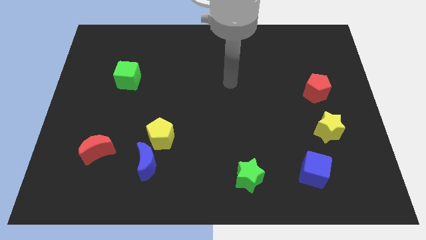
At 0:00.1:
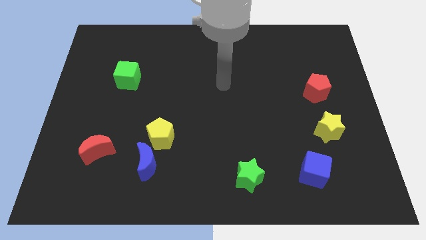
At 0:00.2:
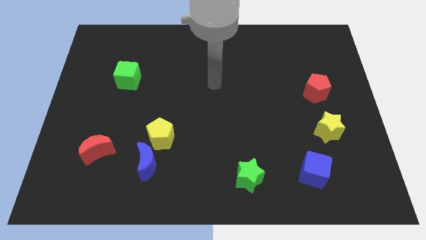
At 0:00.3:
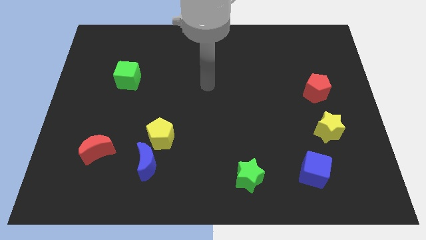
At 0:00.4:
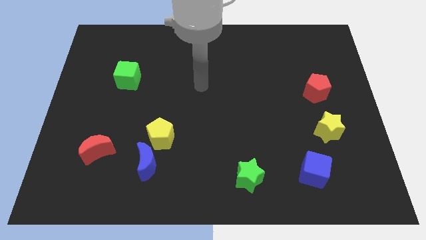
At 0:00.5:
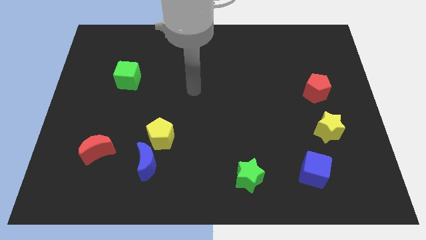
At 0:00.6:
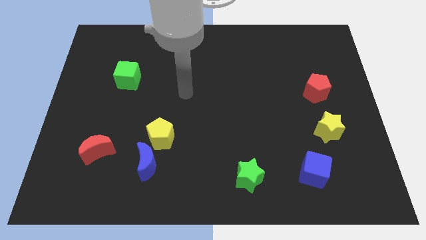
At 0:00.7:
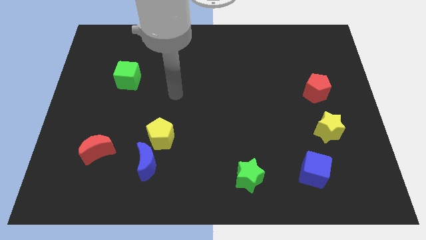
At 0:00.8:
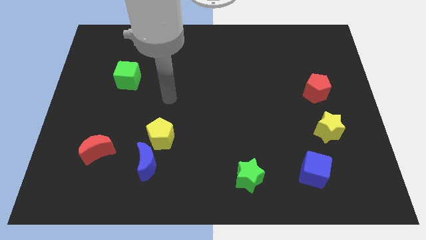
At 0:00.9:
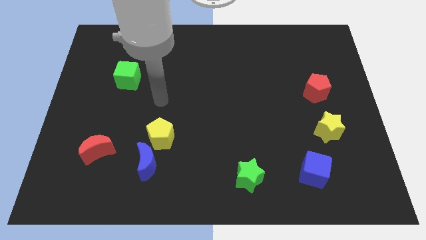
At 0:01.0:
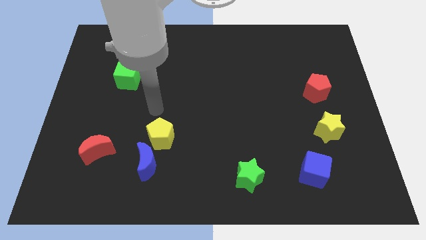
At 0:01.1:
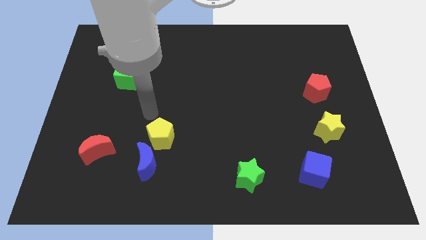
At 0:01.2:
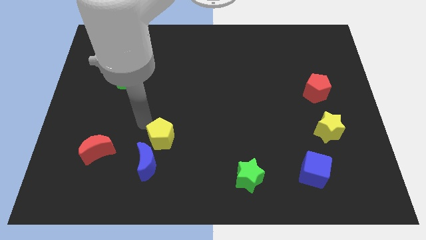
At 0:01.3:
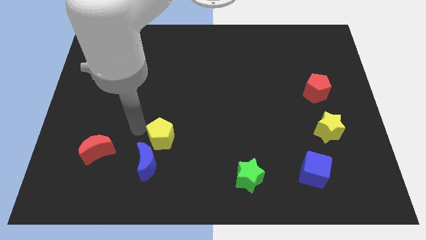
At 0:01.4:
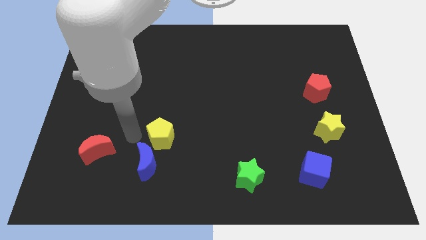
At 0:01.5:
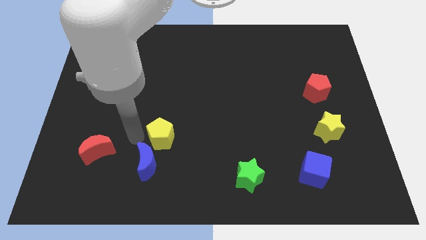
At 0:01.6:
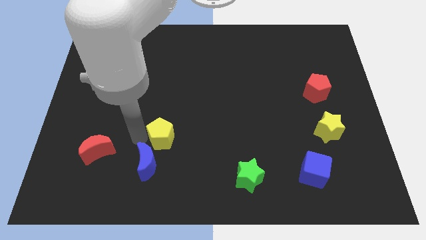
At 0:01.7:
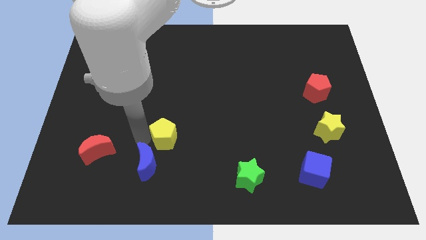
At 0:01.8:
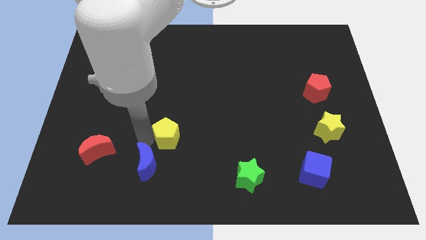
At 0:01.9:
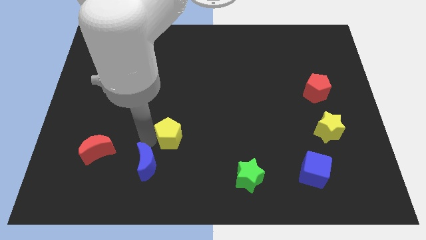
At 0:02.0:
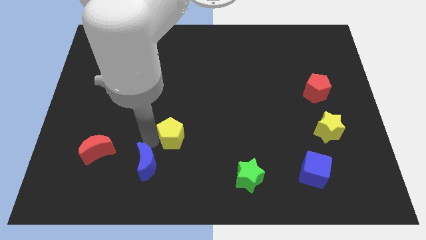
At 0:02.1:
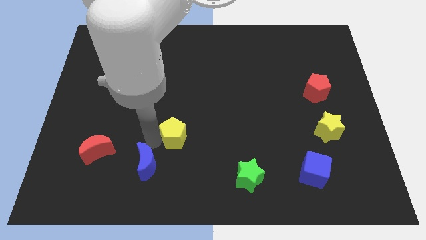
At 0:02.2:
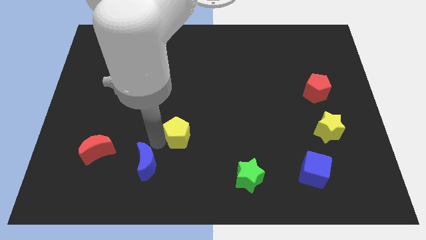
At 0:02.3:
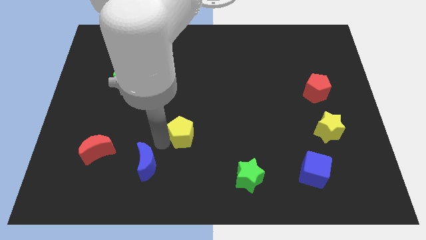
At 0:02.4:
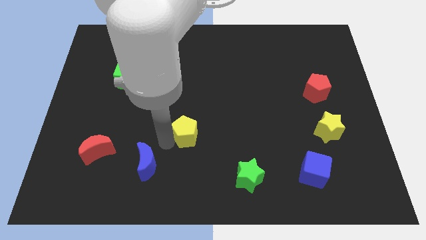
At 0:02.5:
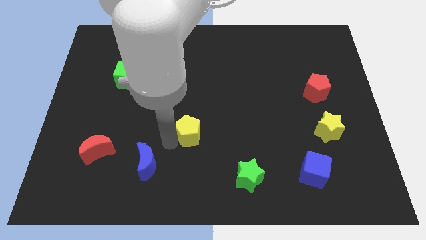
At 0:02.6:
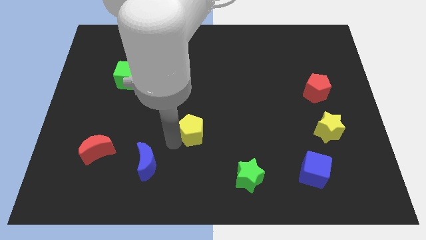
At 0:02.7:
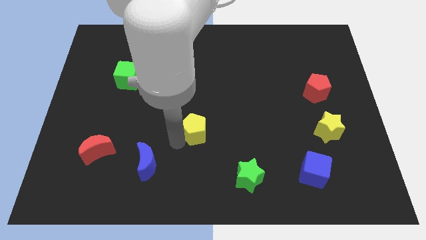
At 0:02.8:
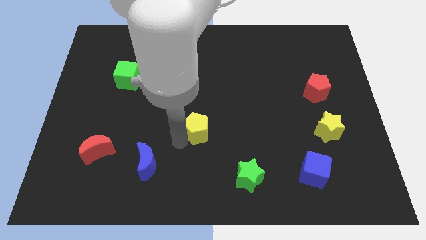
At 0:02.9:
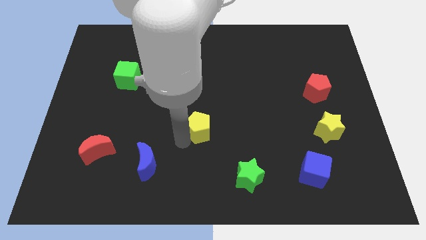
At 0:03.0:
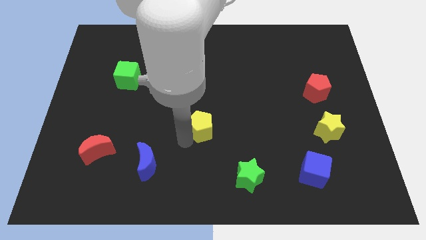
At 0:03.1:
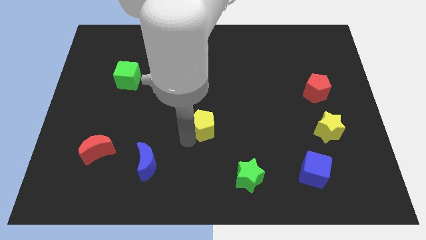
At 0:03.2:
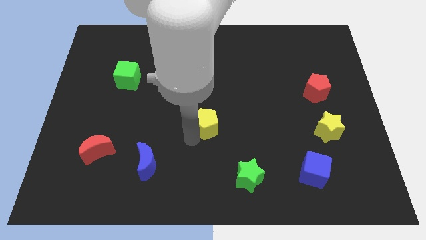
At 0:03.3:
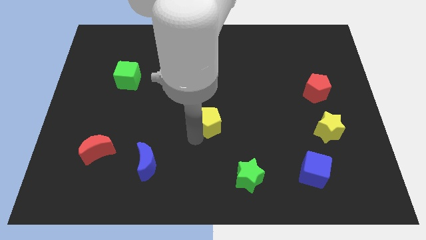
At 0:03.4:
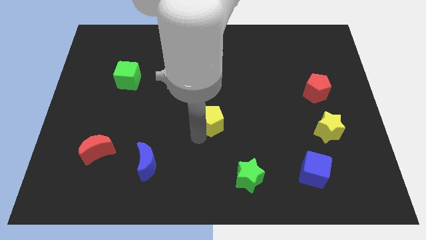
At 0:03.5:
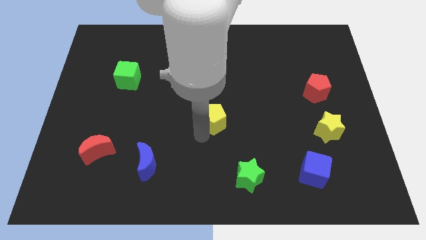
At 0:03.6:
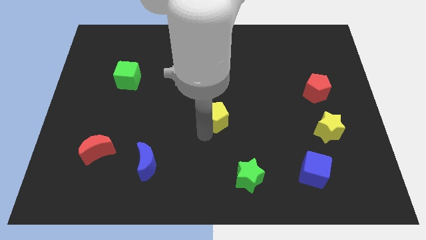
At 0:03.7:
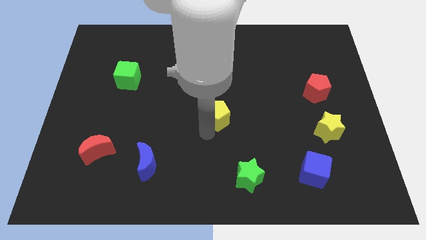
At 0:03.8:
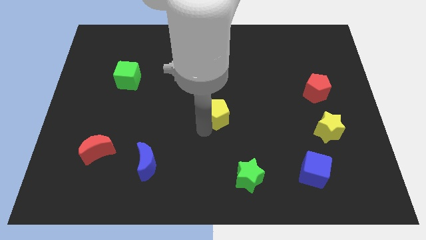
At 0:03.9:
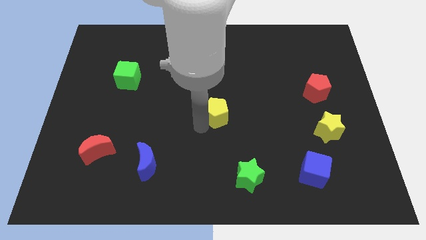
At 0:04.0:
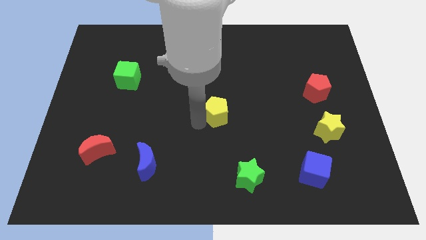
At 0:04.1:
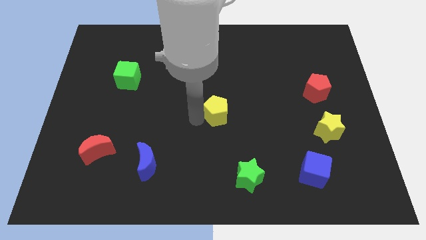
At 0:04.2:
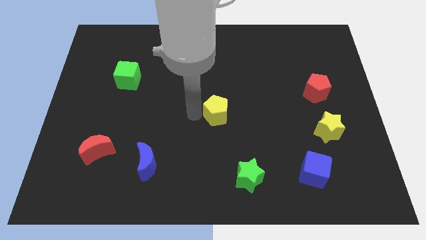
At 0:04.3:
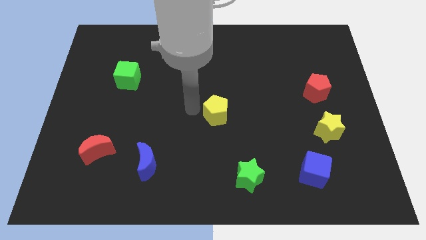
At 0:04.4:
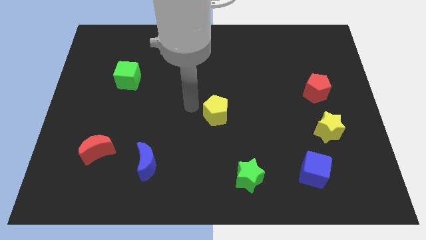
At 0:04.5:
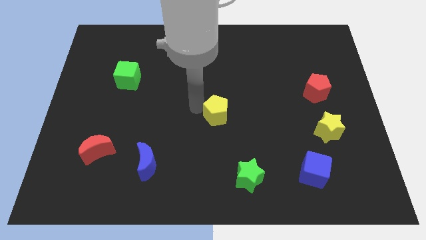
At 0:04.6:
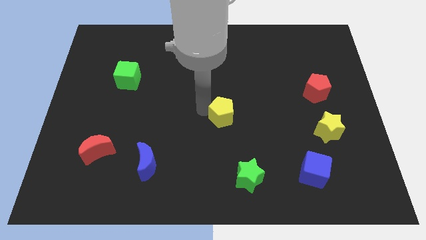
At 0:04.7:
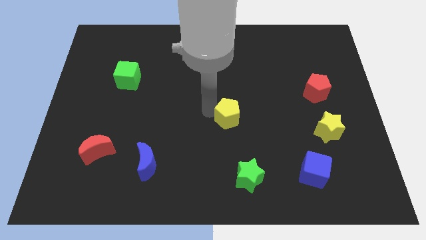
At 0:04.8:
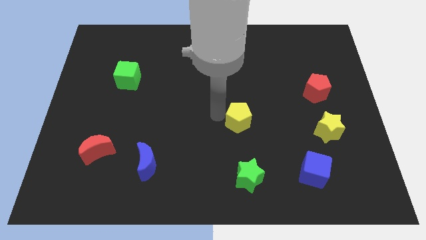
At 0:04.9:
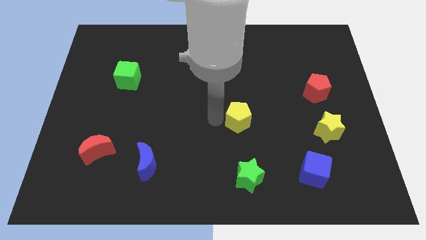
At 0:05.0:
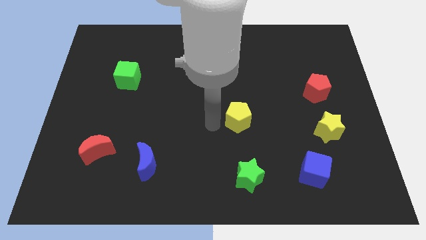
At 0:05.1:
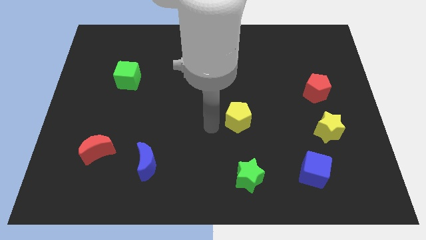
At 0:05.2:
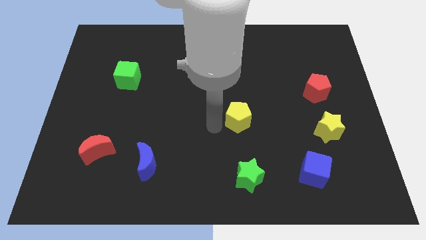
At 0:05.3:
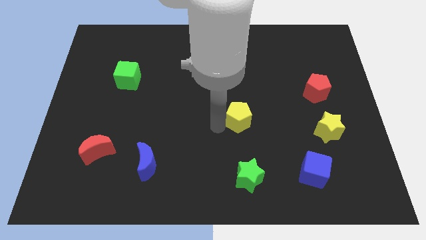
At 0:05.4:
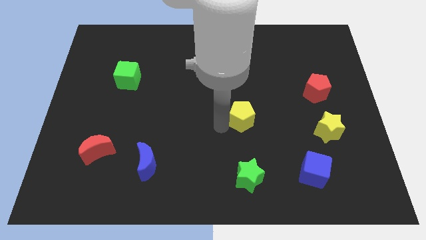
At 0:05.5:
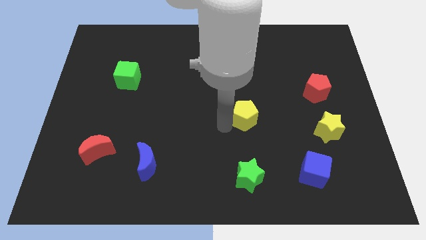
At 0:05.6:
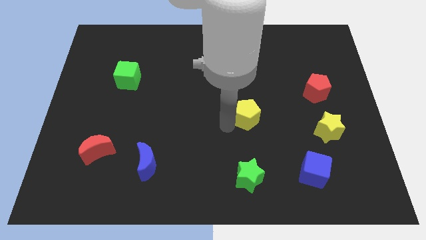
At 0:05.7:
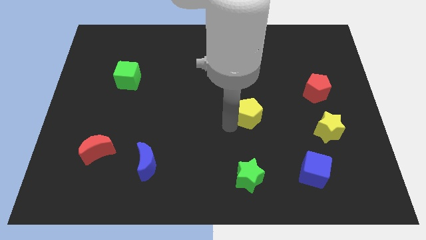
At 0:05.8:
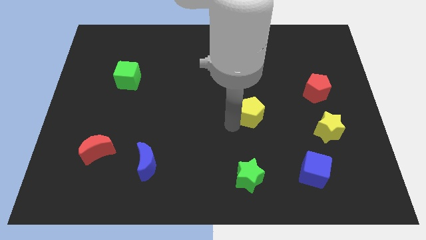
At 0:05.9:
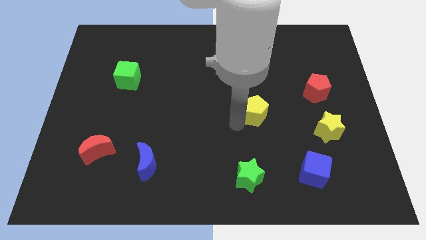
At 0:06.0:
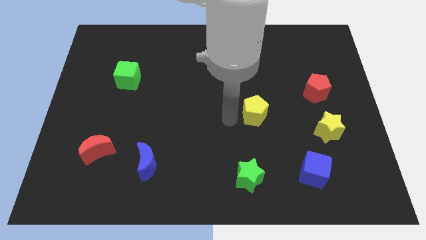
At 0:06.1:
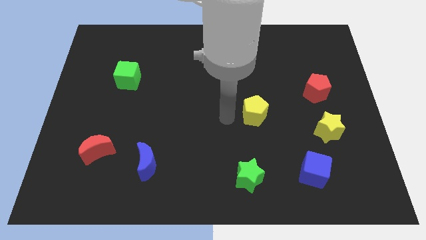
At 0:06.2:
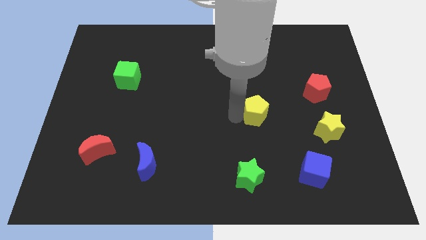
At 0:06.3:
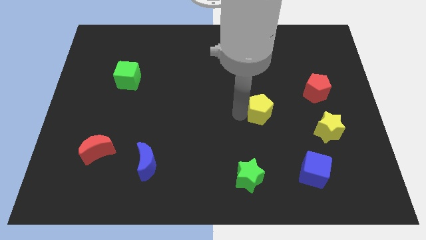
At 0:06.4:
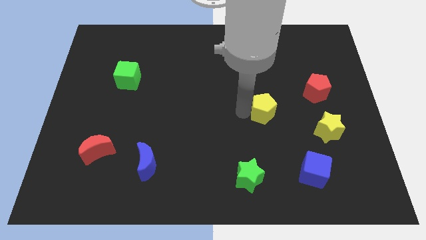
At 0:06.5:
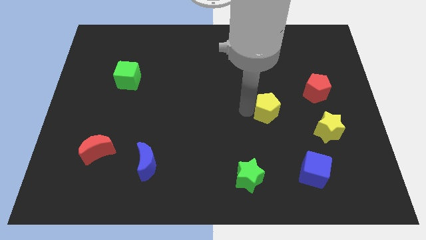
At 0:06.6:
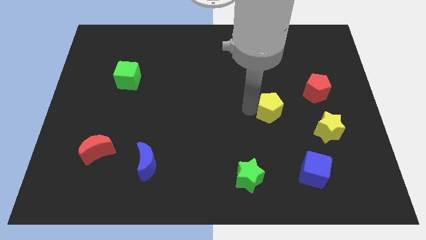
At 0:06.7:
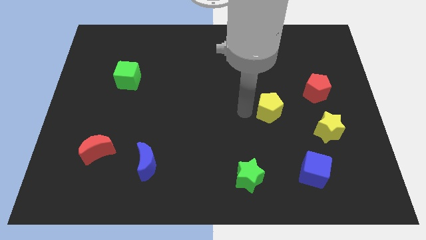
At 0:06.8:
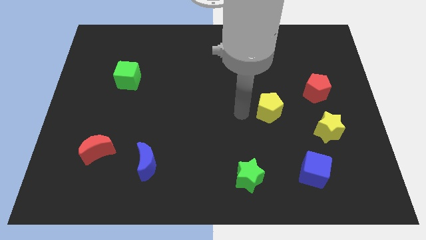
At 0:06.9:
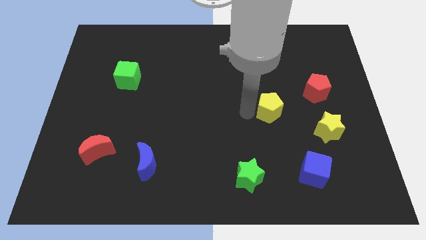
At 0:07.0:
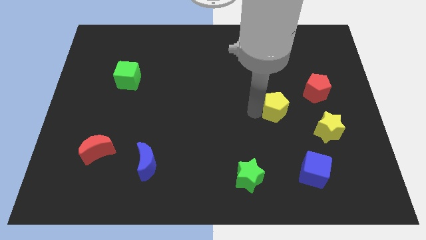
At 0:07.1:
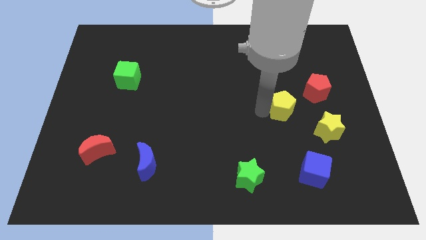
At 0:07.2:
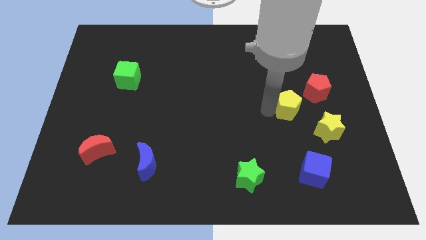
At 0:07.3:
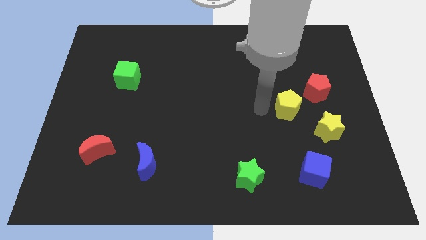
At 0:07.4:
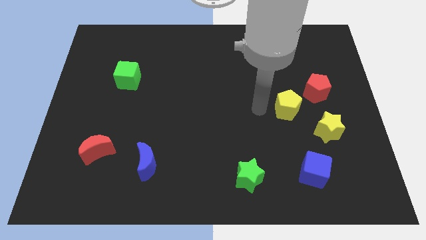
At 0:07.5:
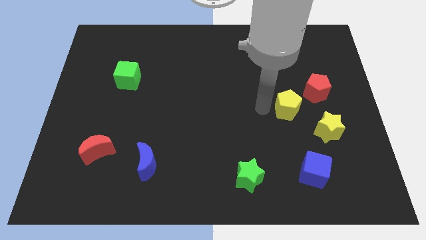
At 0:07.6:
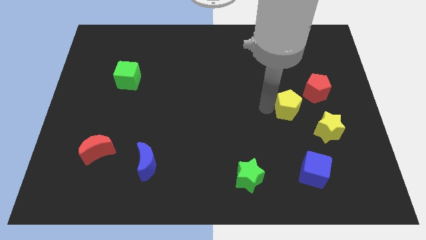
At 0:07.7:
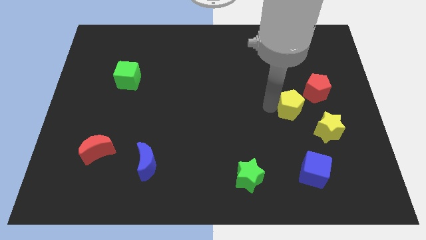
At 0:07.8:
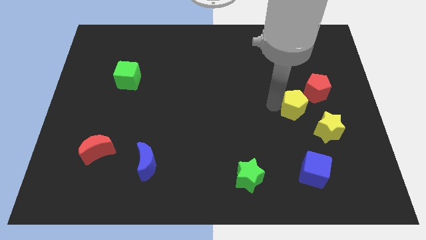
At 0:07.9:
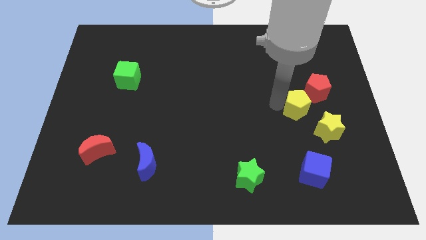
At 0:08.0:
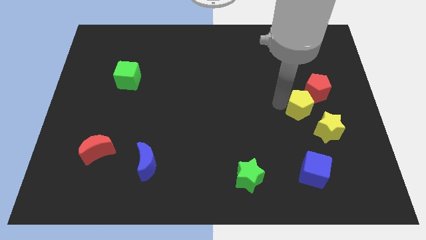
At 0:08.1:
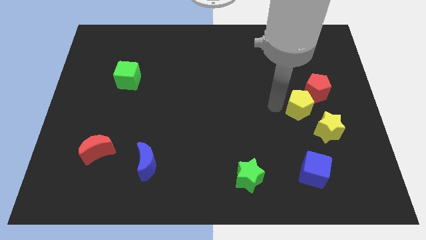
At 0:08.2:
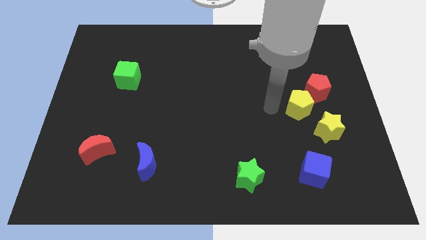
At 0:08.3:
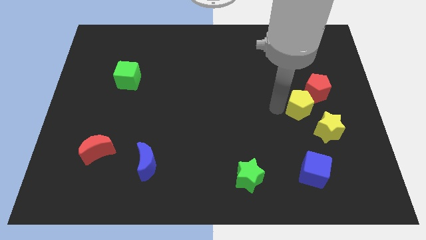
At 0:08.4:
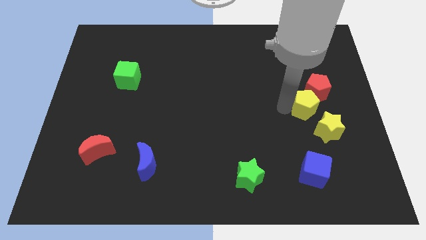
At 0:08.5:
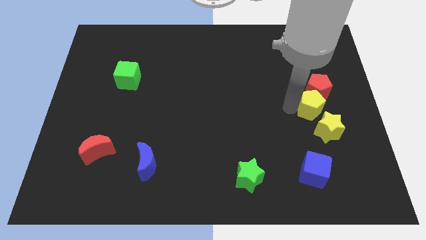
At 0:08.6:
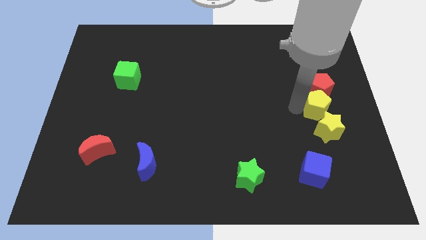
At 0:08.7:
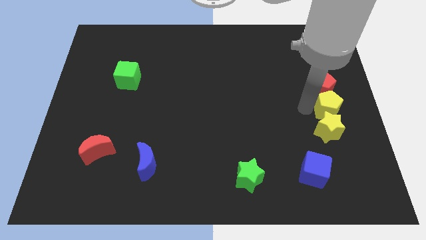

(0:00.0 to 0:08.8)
push the yellow pentagon to the center right
